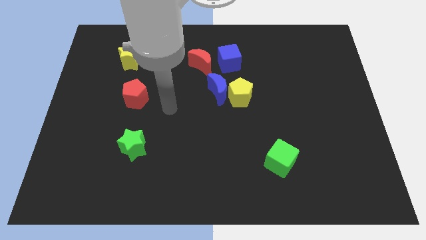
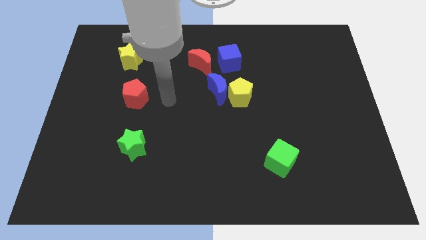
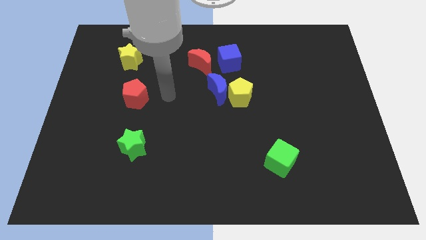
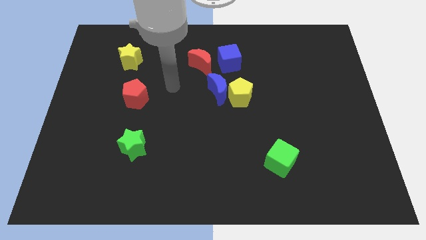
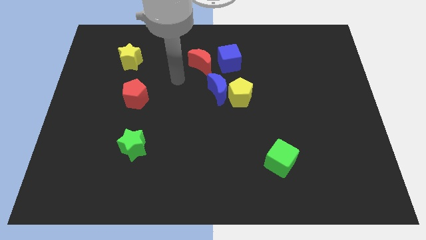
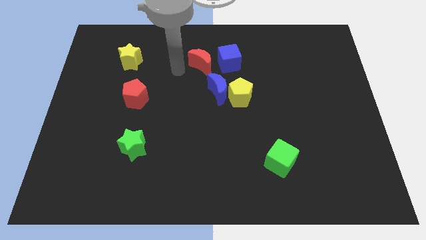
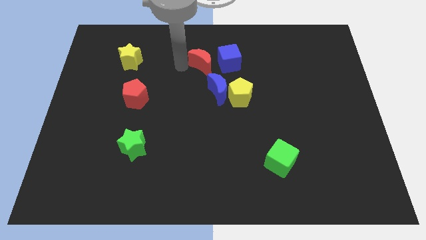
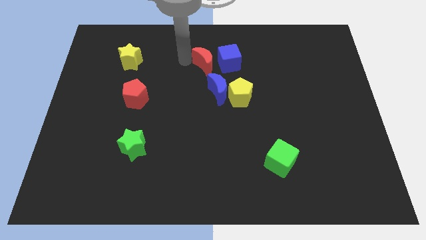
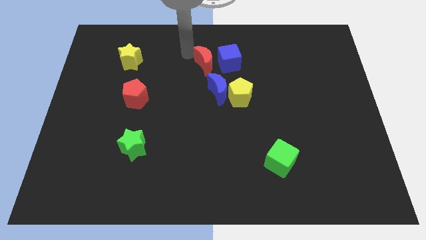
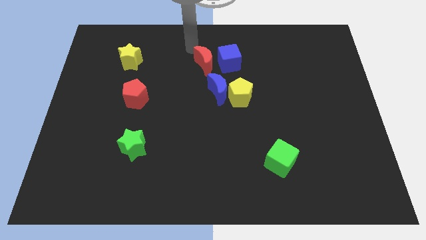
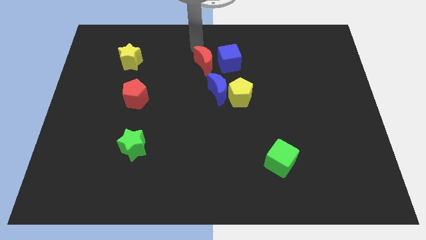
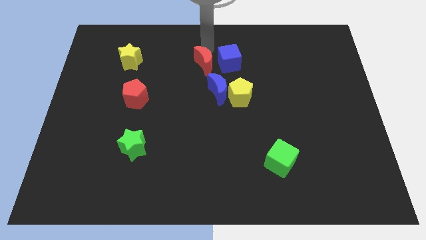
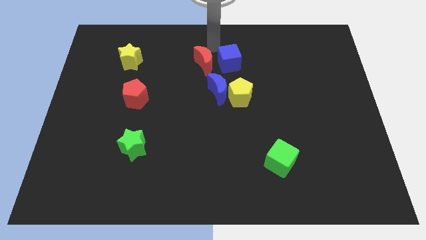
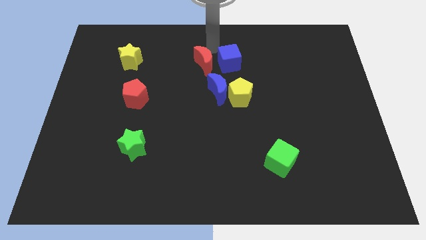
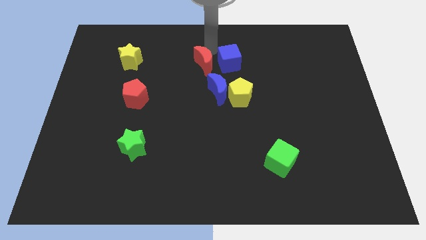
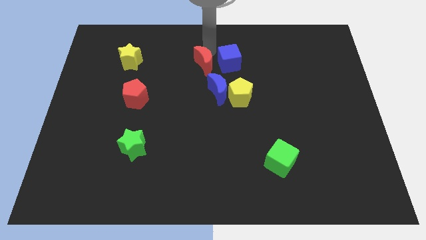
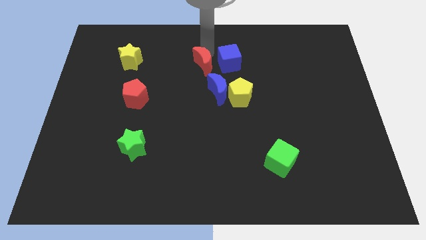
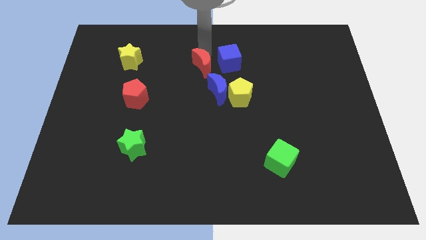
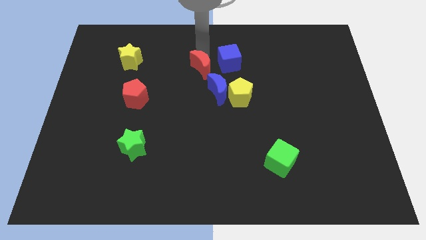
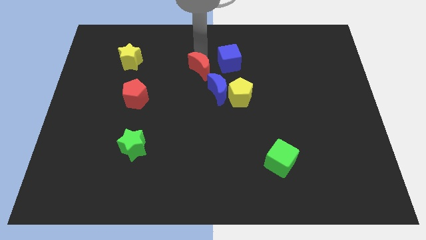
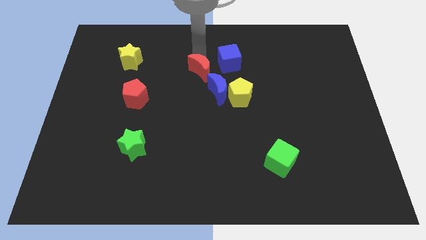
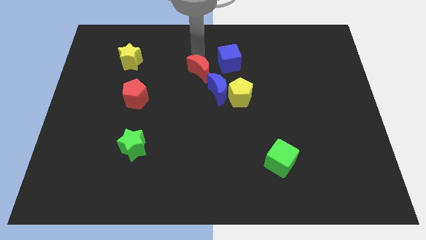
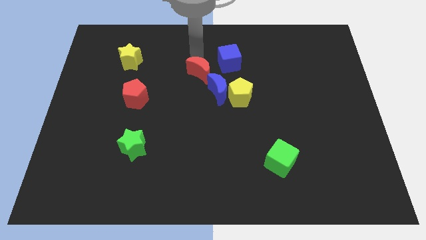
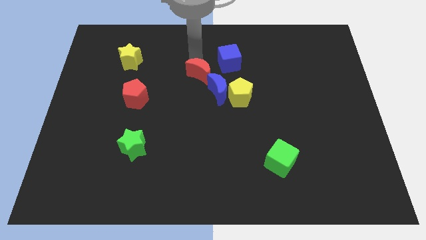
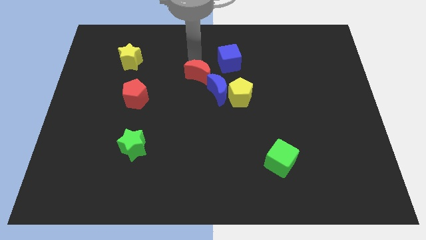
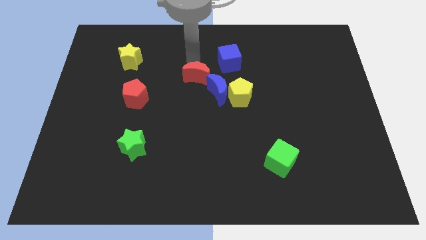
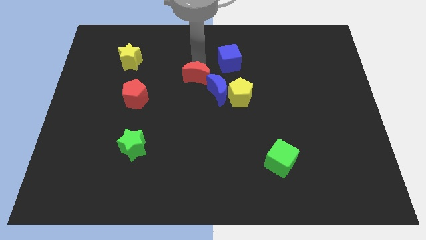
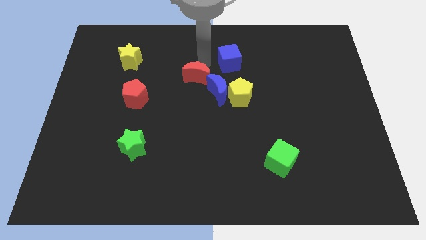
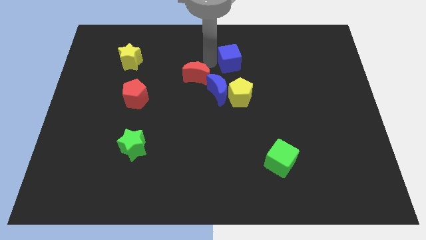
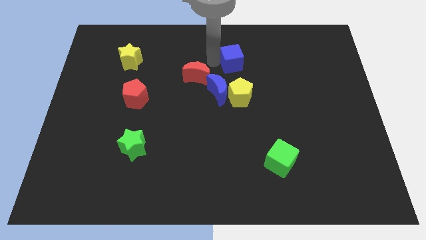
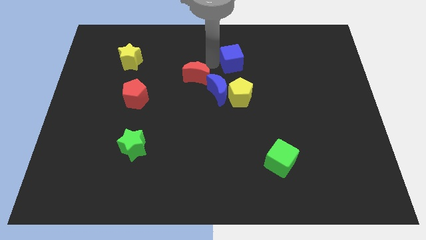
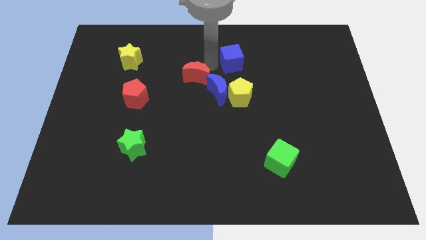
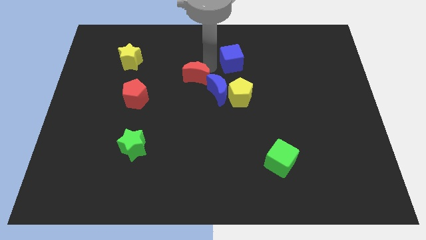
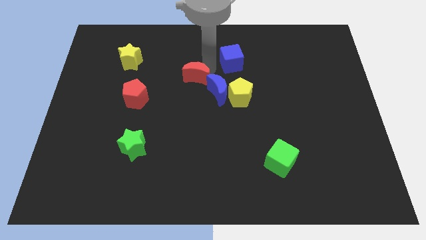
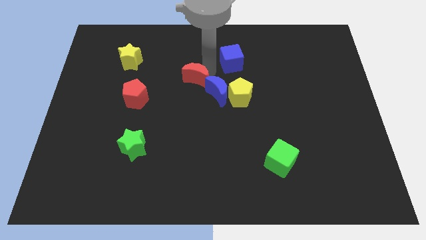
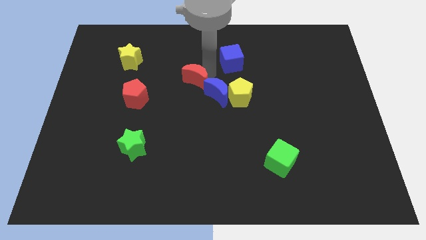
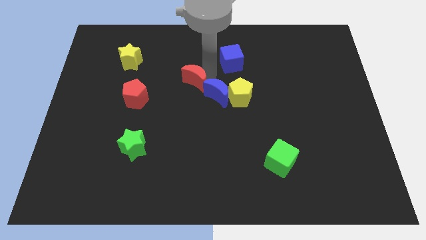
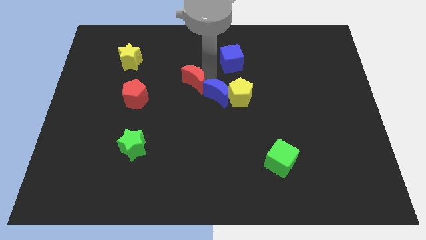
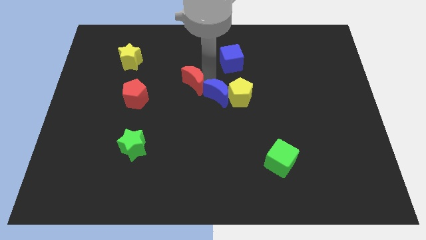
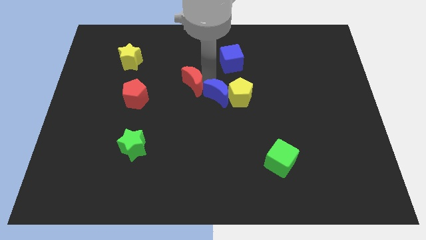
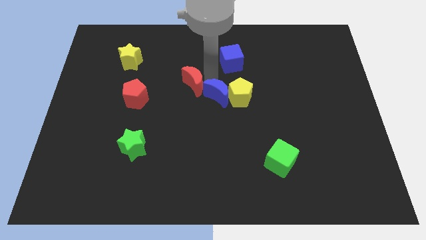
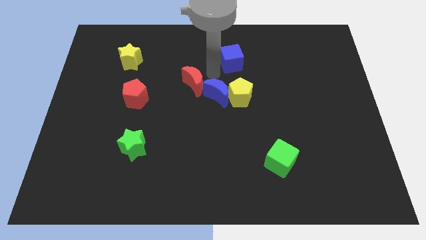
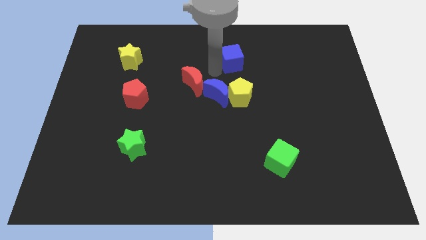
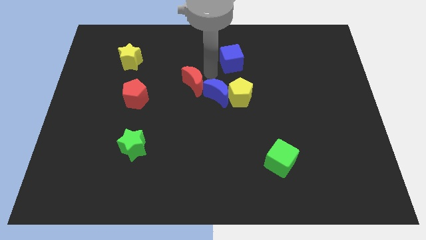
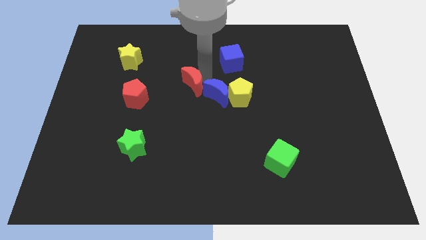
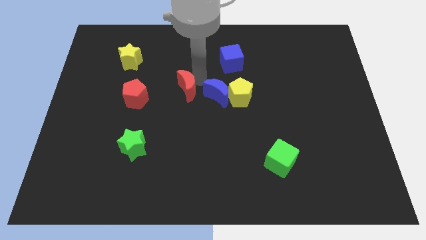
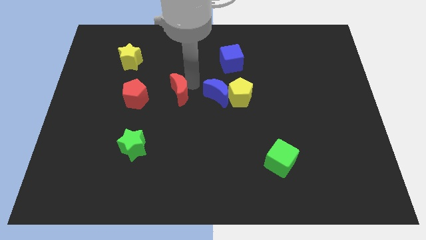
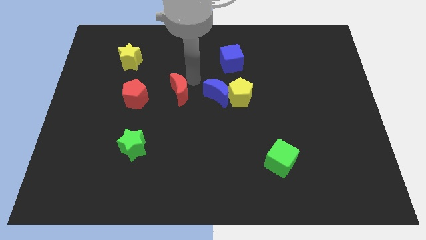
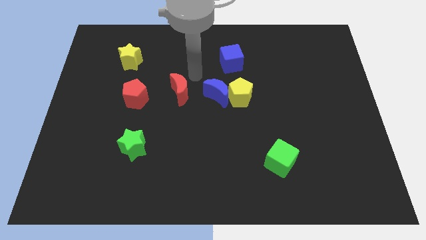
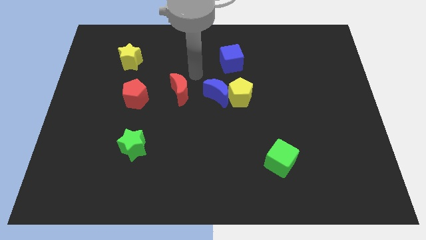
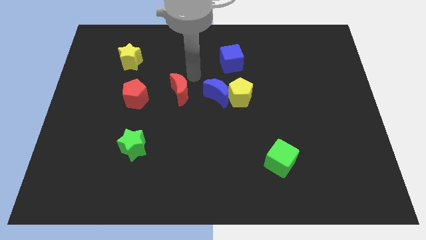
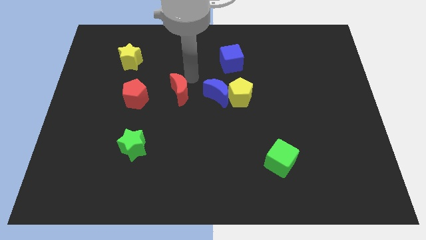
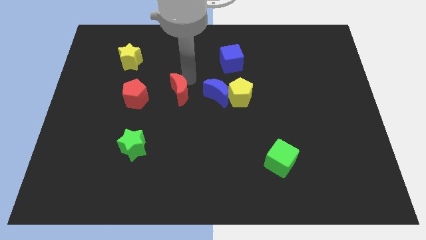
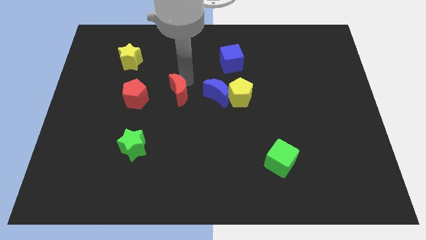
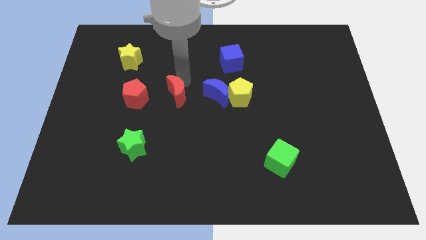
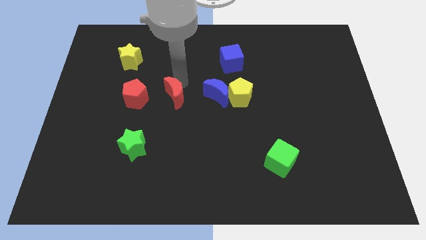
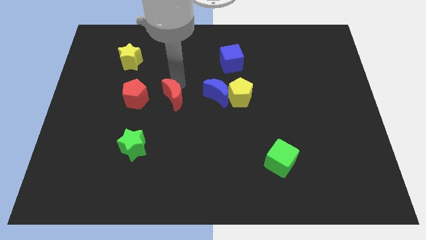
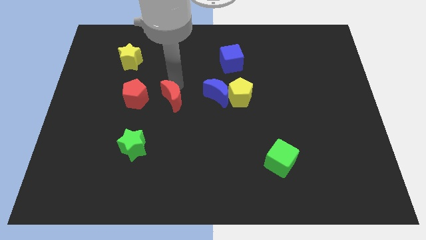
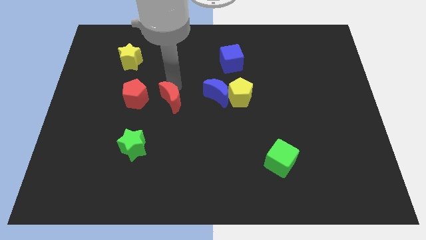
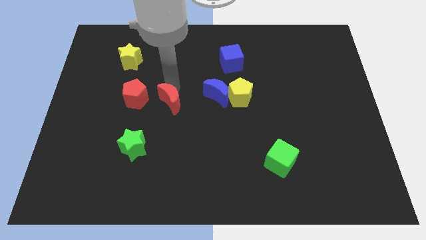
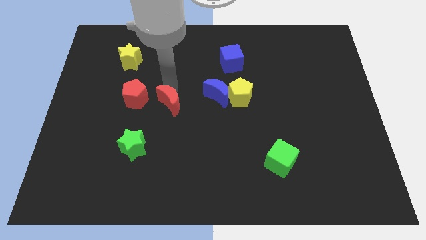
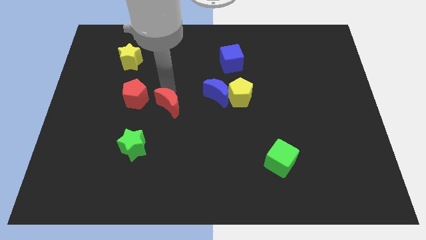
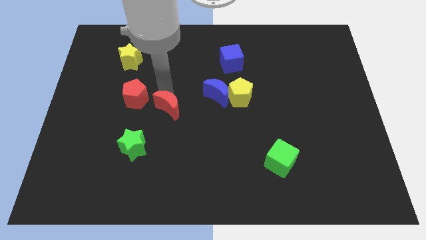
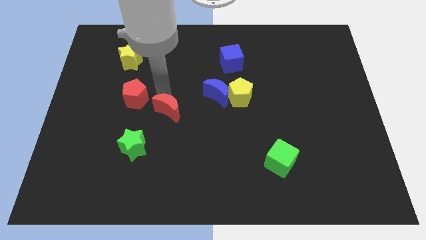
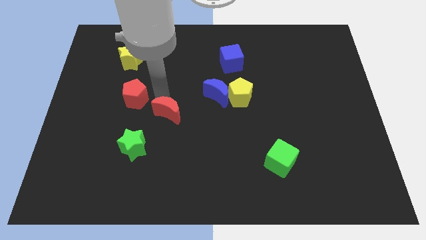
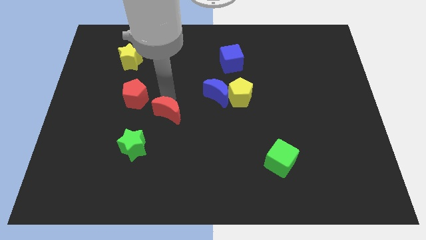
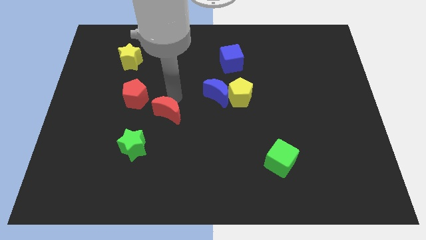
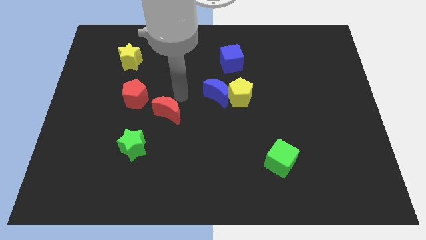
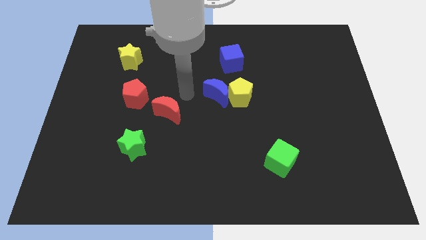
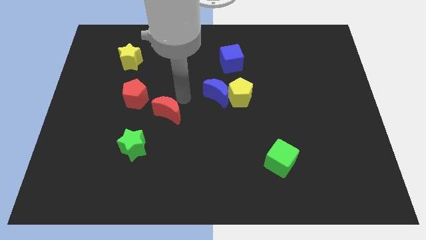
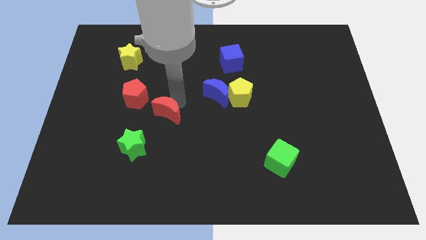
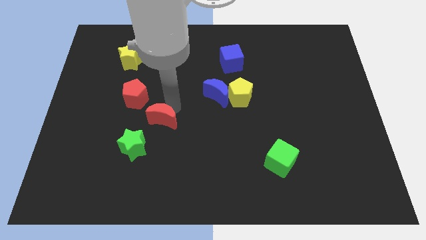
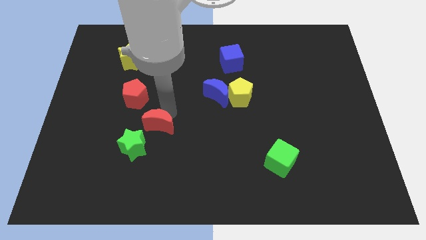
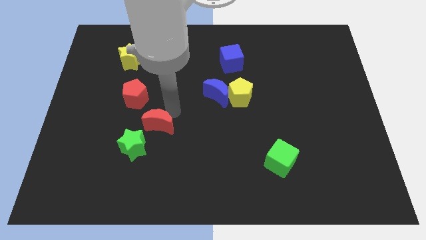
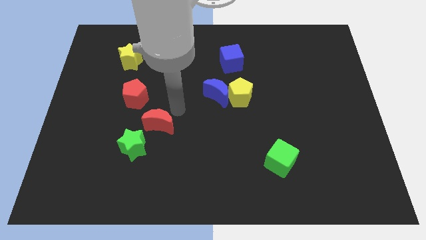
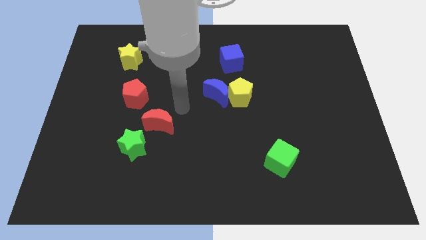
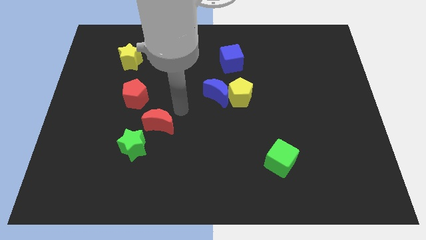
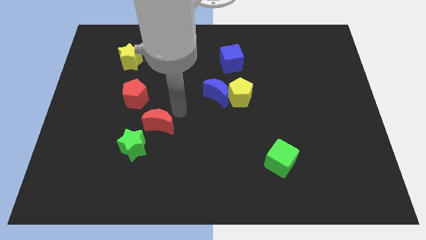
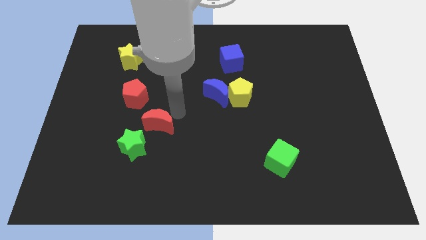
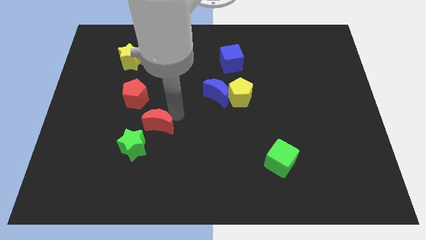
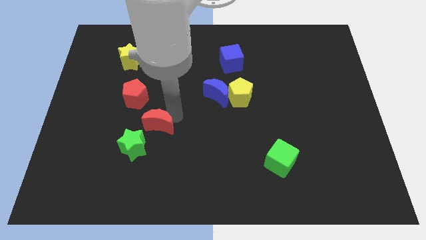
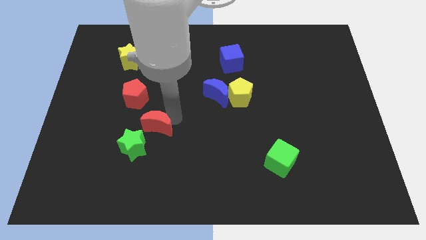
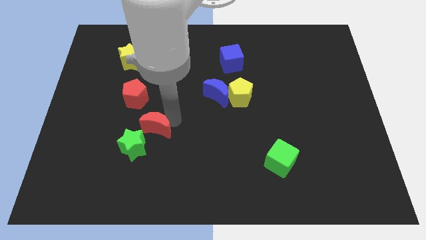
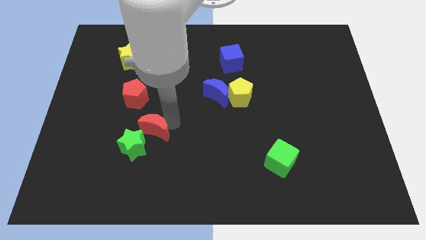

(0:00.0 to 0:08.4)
push the red moon next to the green star
